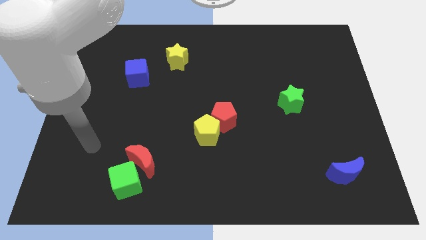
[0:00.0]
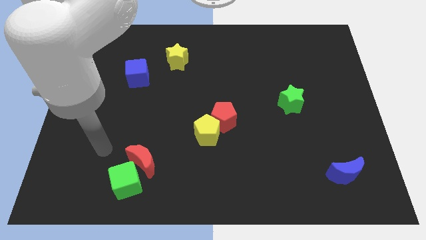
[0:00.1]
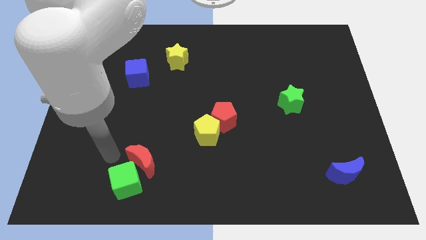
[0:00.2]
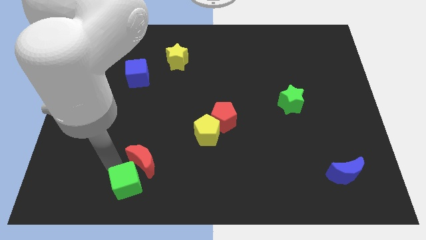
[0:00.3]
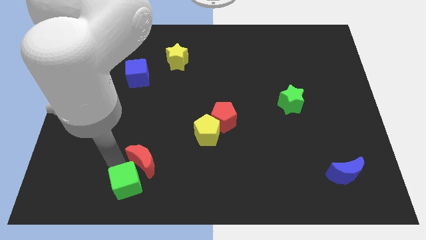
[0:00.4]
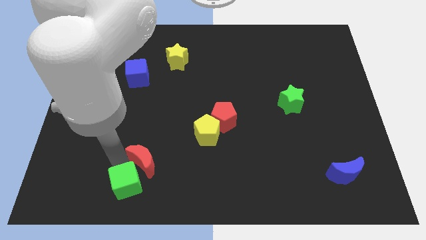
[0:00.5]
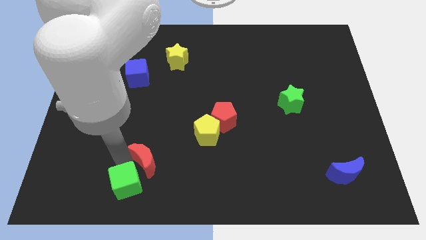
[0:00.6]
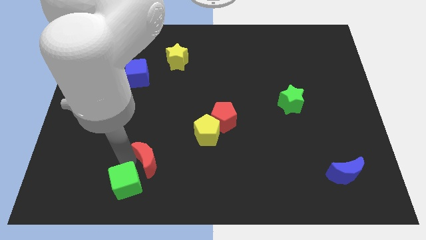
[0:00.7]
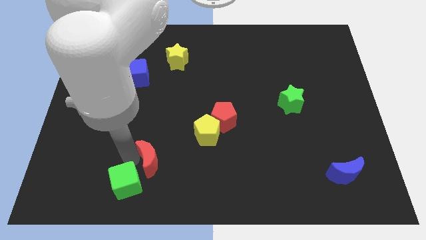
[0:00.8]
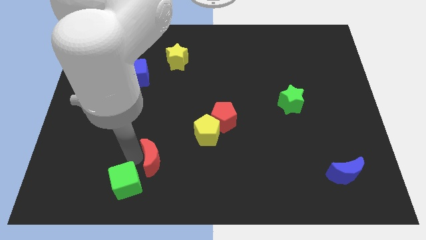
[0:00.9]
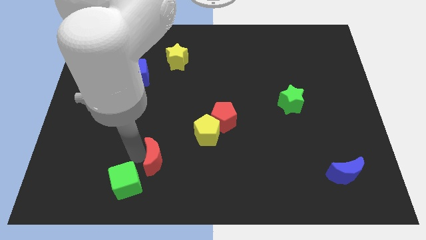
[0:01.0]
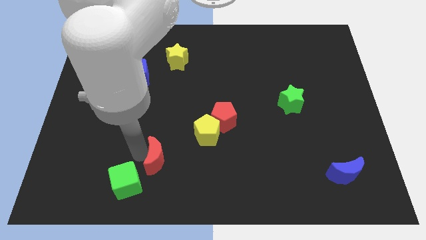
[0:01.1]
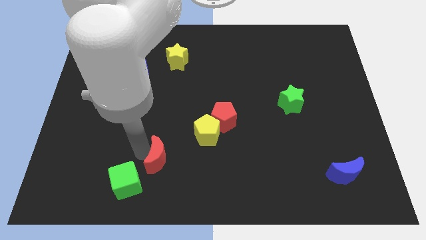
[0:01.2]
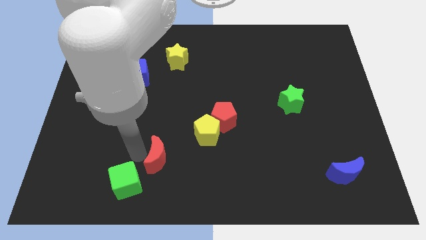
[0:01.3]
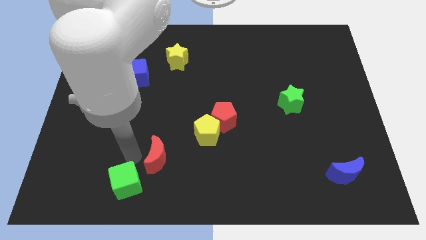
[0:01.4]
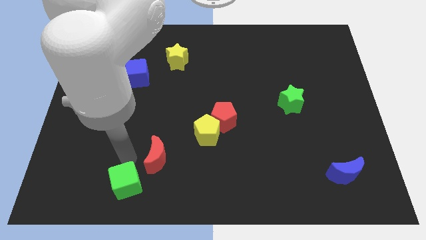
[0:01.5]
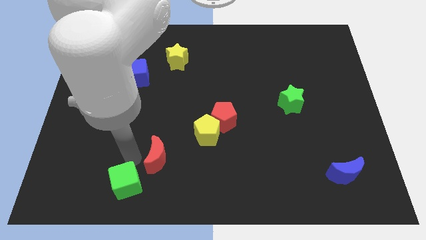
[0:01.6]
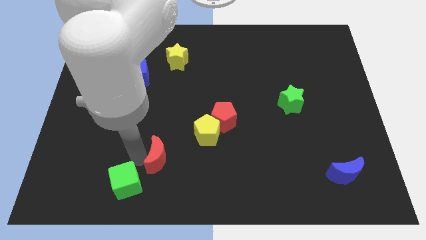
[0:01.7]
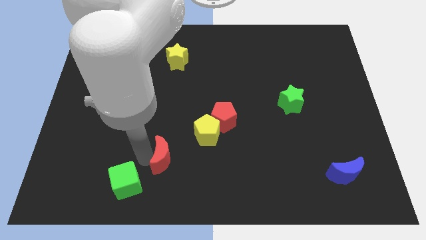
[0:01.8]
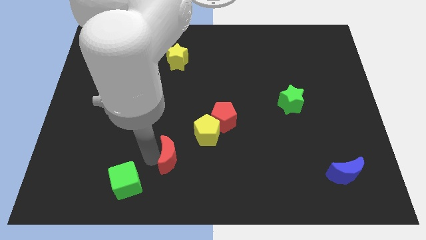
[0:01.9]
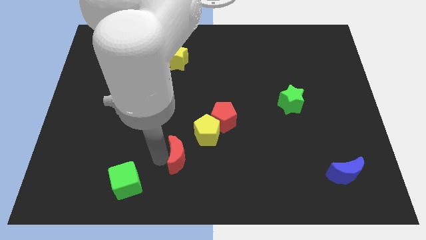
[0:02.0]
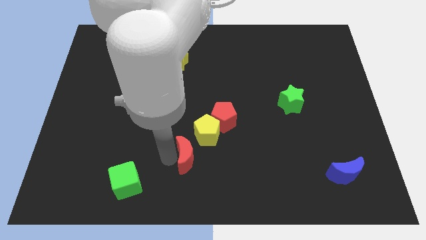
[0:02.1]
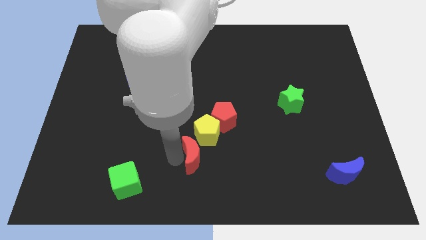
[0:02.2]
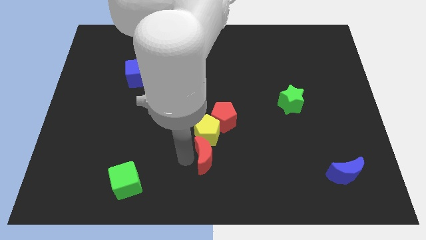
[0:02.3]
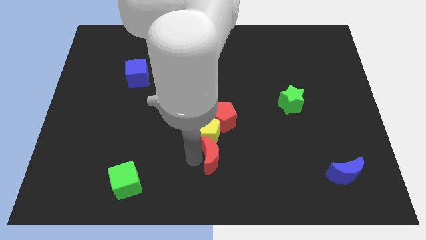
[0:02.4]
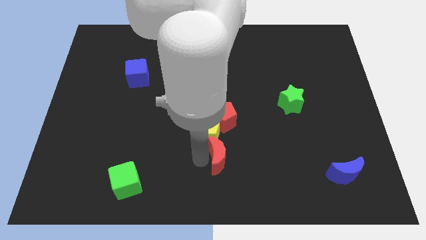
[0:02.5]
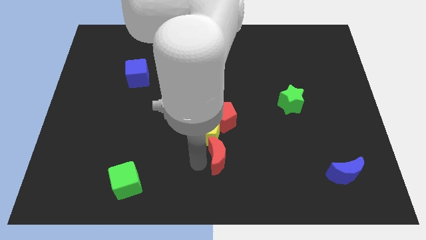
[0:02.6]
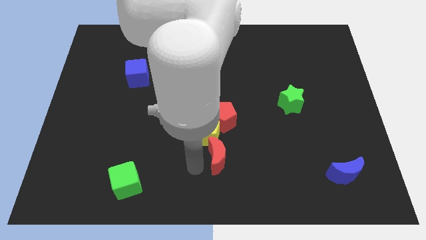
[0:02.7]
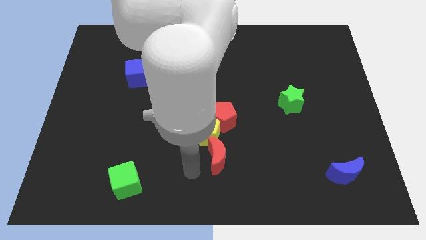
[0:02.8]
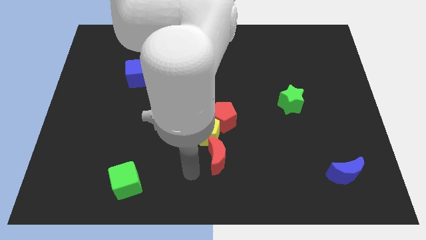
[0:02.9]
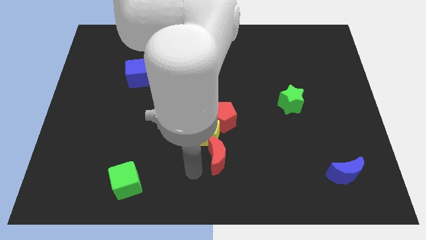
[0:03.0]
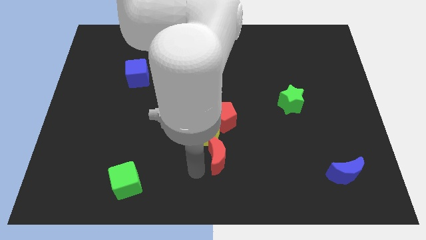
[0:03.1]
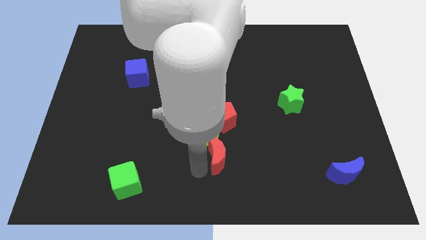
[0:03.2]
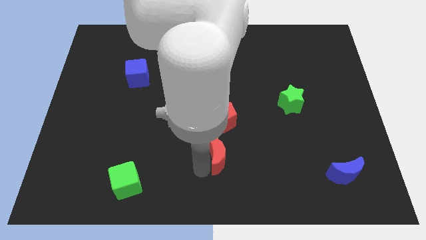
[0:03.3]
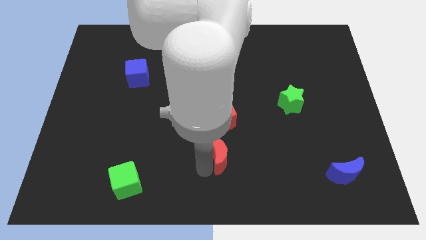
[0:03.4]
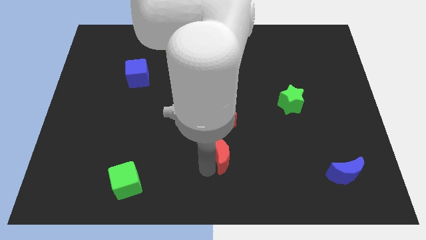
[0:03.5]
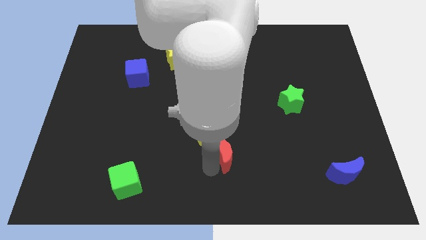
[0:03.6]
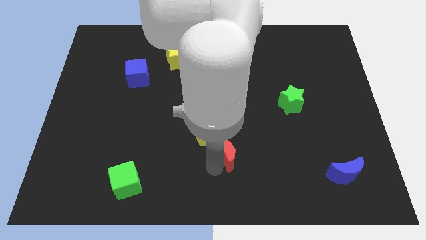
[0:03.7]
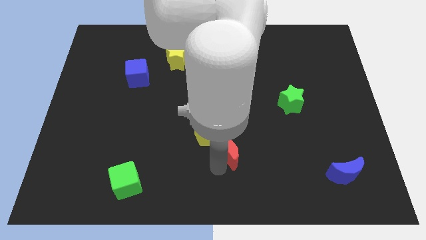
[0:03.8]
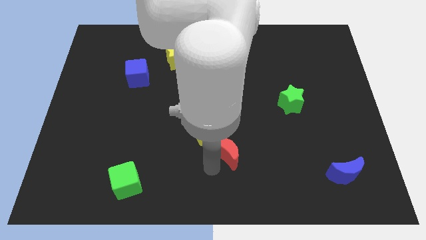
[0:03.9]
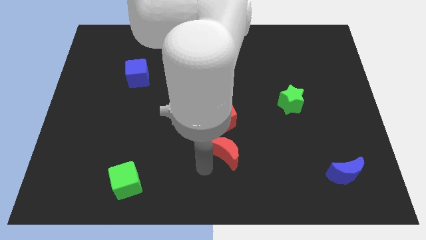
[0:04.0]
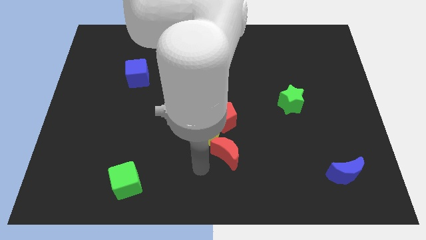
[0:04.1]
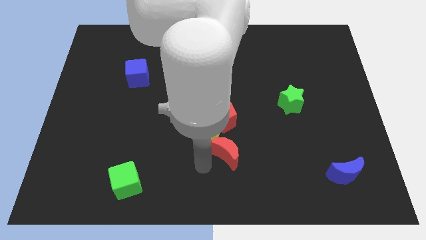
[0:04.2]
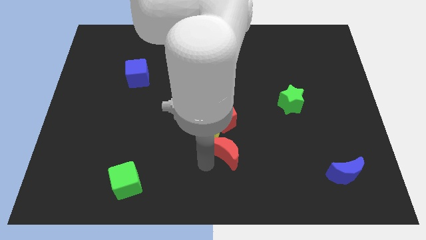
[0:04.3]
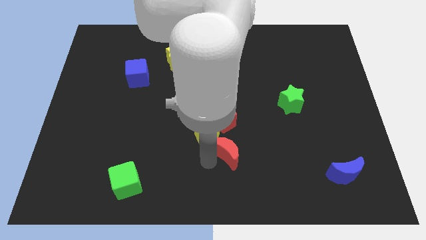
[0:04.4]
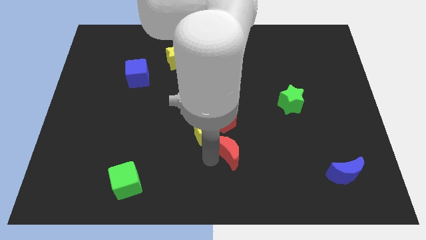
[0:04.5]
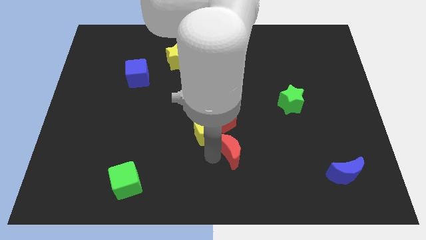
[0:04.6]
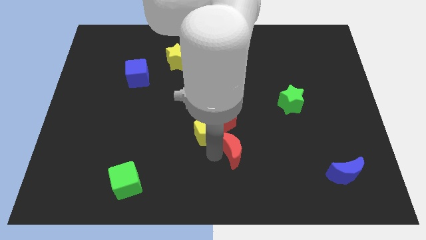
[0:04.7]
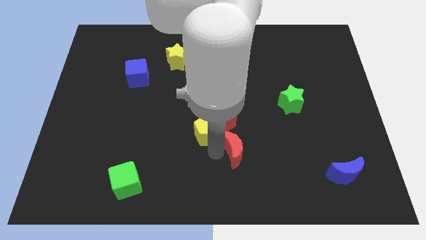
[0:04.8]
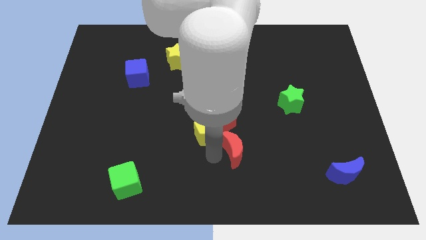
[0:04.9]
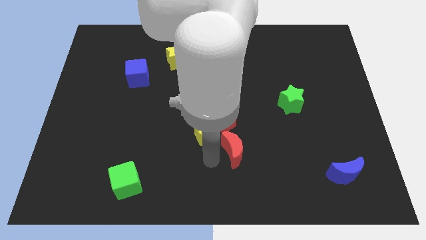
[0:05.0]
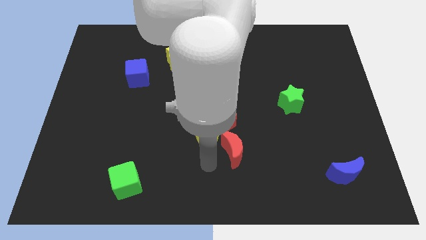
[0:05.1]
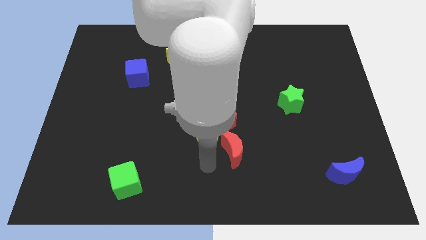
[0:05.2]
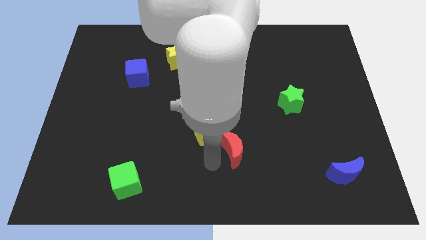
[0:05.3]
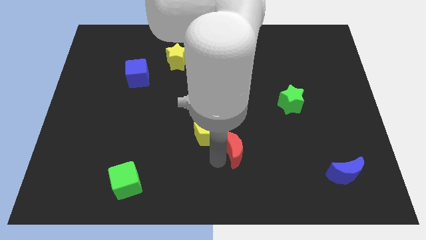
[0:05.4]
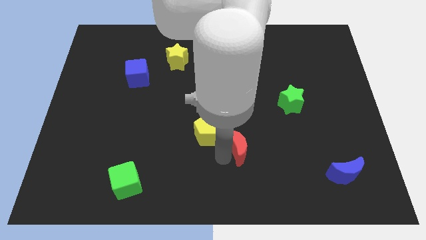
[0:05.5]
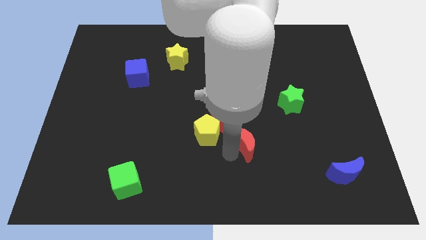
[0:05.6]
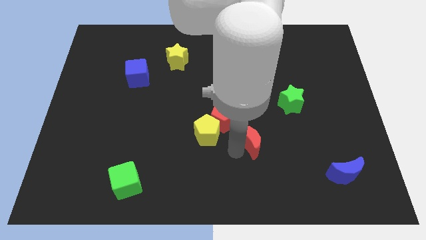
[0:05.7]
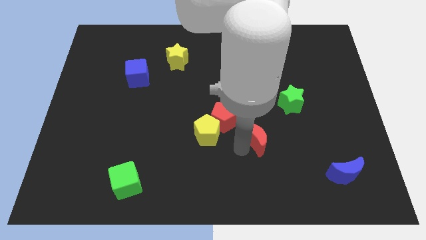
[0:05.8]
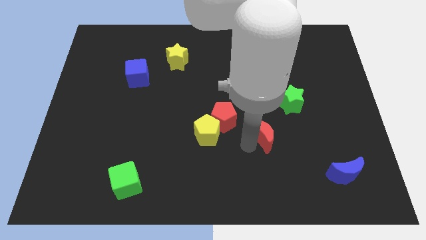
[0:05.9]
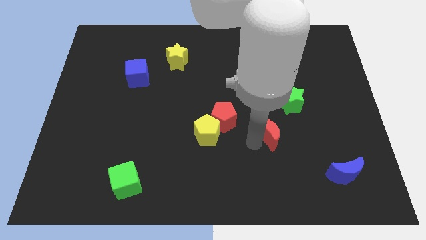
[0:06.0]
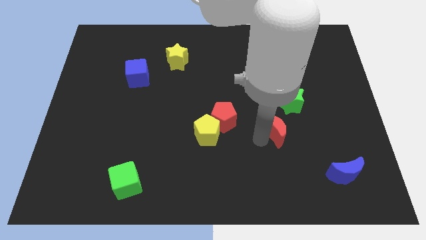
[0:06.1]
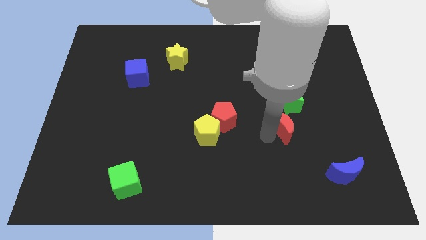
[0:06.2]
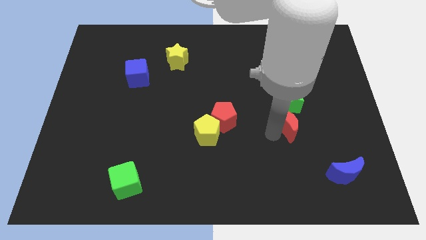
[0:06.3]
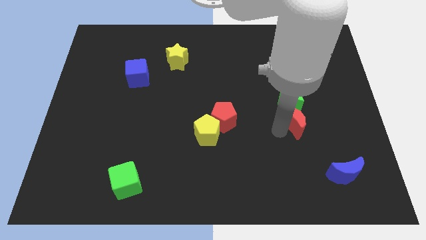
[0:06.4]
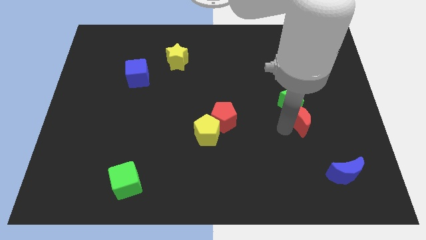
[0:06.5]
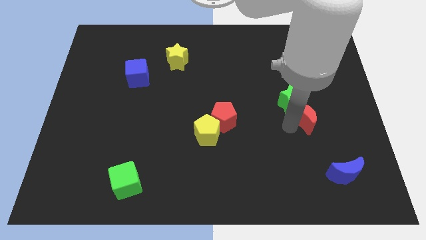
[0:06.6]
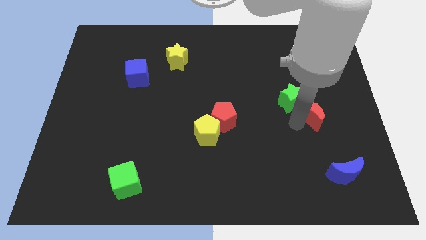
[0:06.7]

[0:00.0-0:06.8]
push the red moon to the right side of the green star
